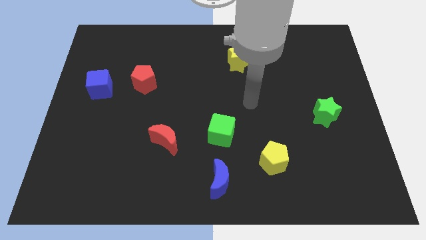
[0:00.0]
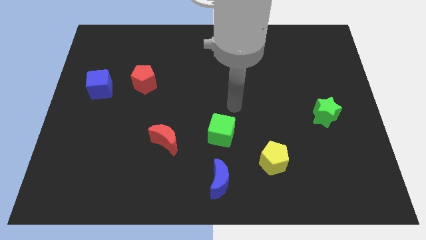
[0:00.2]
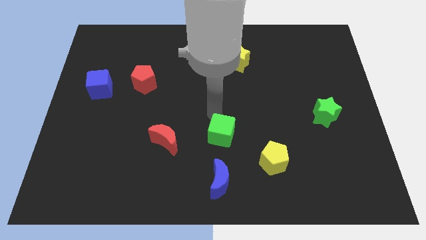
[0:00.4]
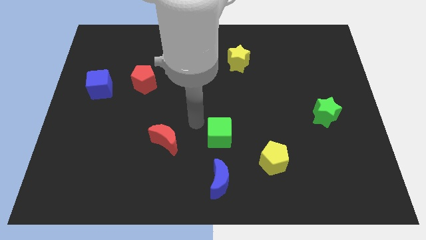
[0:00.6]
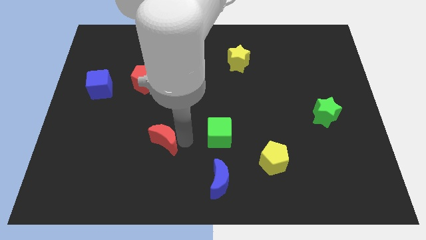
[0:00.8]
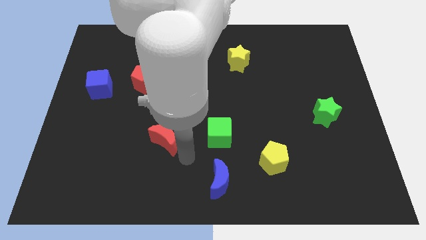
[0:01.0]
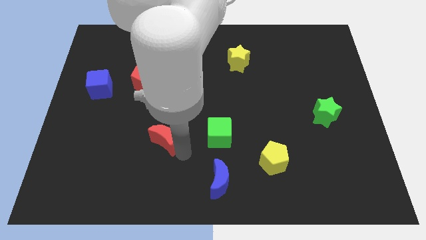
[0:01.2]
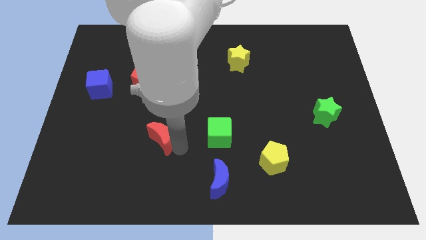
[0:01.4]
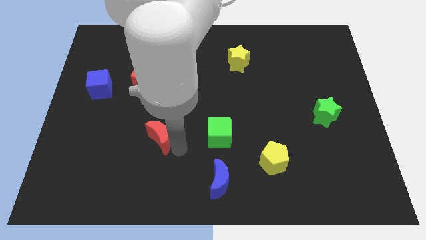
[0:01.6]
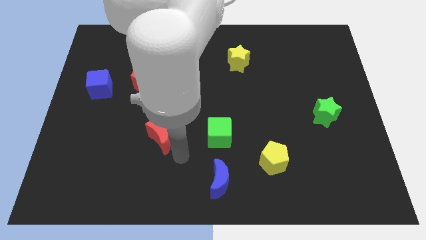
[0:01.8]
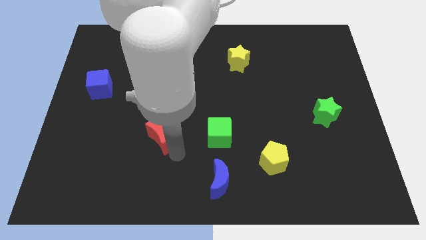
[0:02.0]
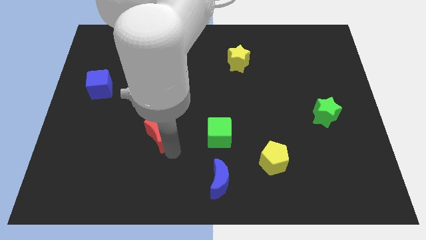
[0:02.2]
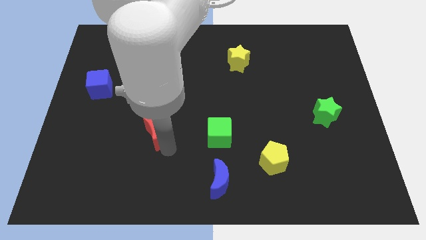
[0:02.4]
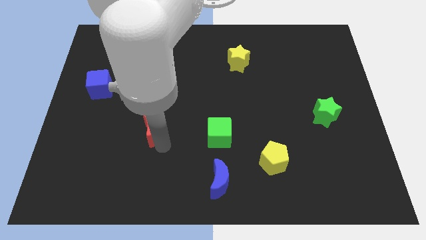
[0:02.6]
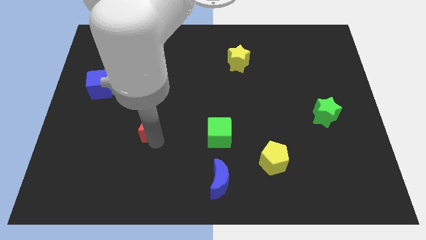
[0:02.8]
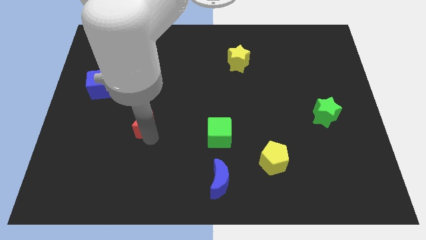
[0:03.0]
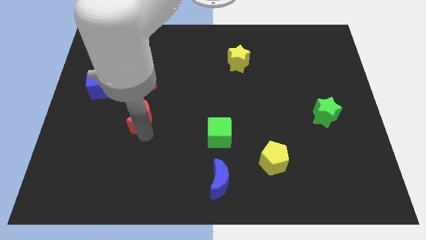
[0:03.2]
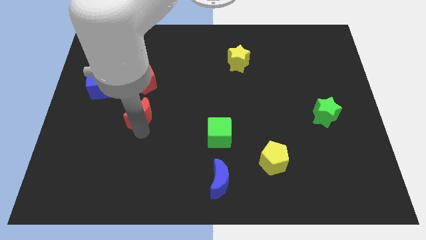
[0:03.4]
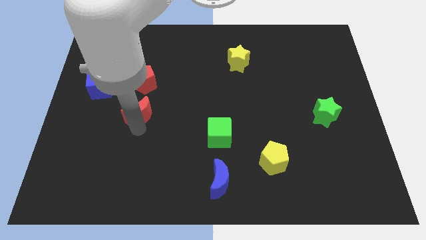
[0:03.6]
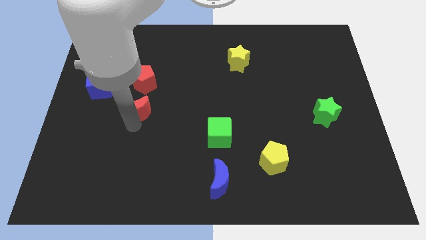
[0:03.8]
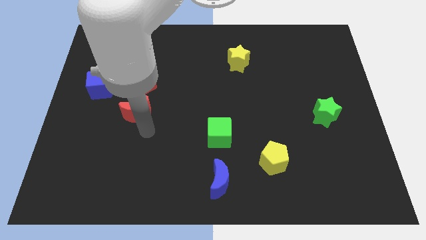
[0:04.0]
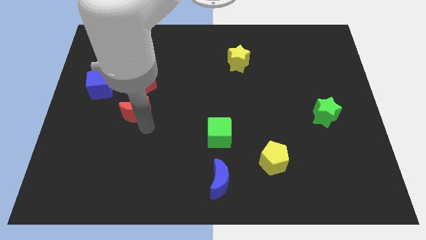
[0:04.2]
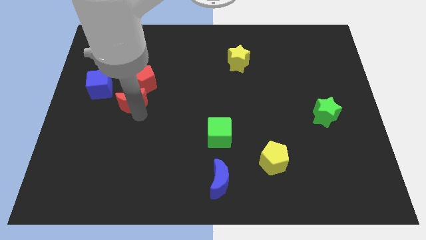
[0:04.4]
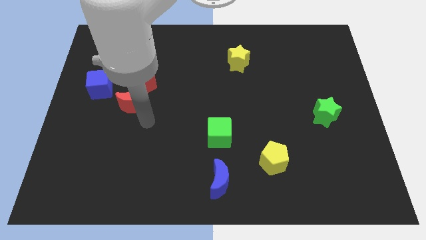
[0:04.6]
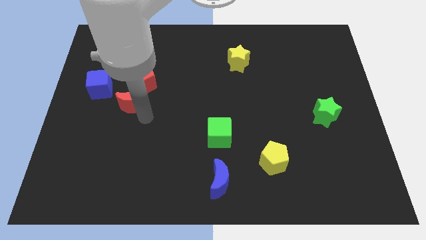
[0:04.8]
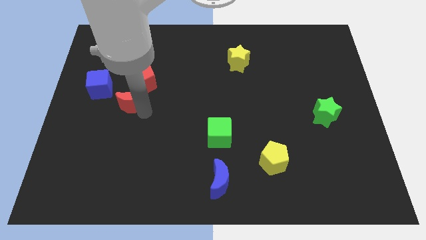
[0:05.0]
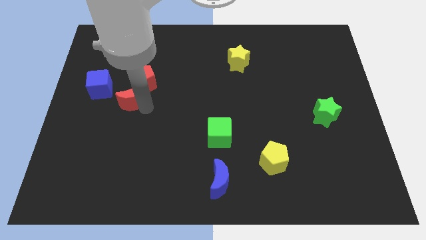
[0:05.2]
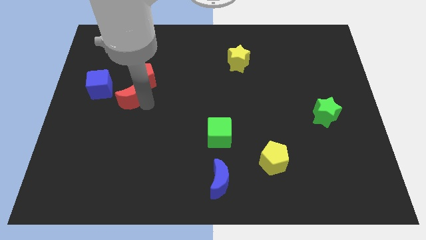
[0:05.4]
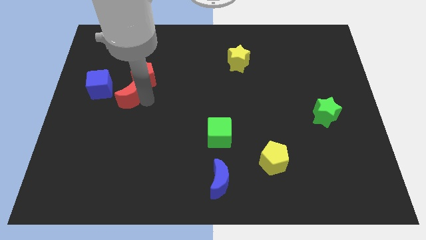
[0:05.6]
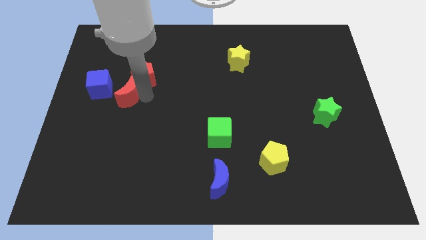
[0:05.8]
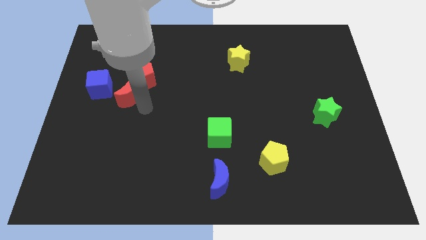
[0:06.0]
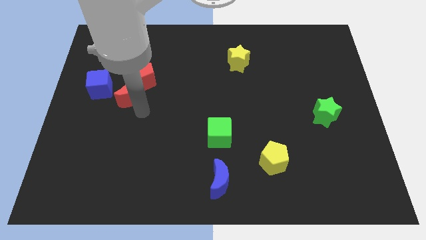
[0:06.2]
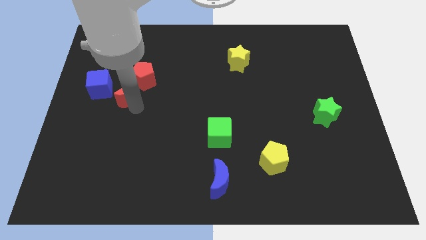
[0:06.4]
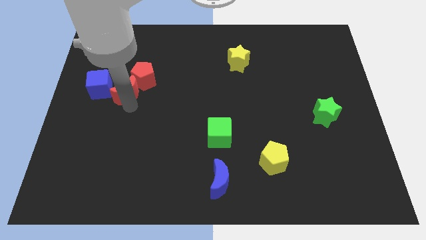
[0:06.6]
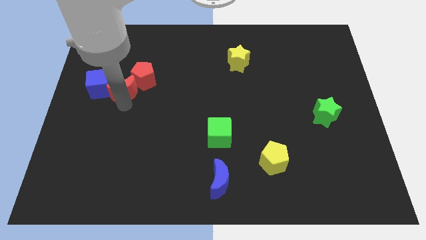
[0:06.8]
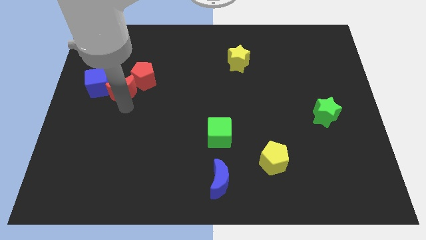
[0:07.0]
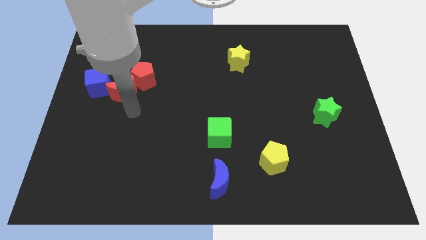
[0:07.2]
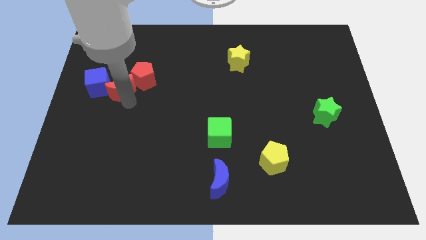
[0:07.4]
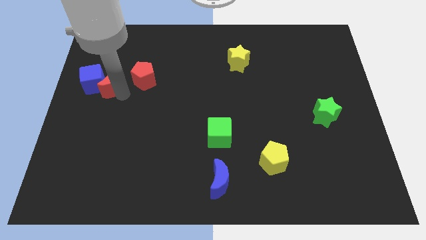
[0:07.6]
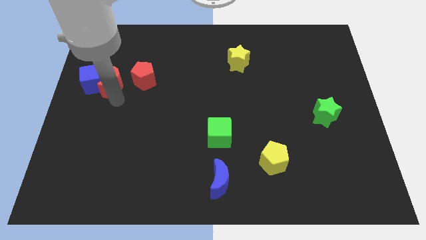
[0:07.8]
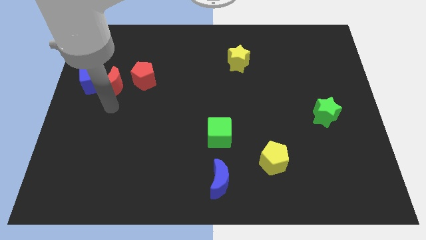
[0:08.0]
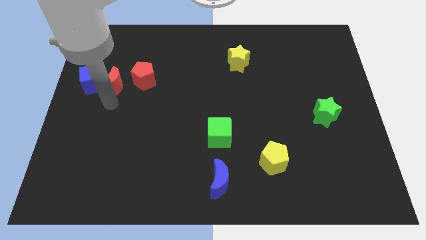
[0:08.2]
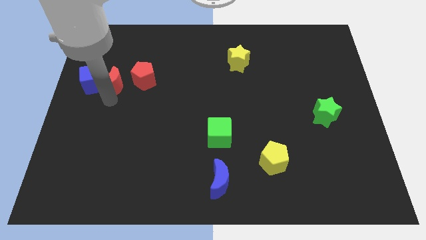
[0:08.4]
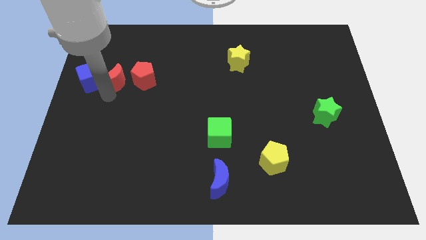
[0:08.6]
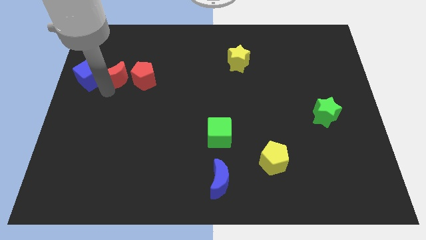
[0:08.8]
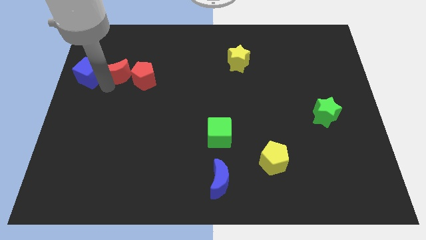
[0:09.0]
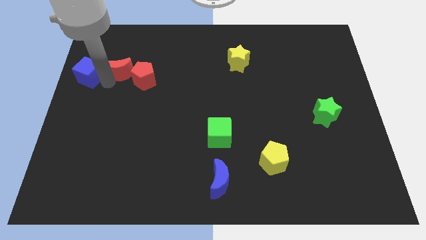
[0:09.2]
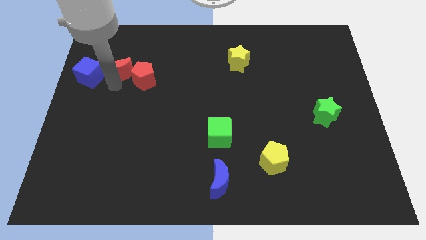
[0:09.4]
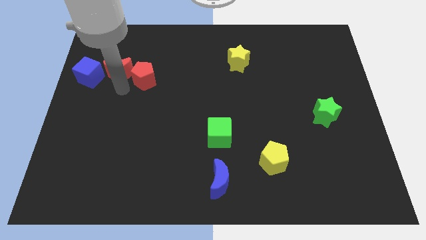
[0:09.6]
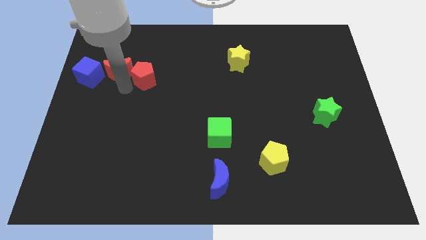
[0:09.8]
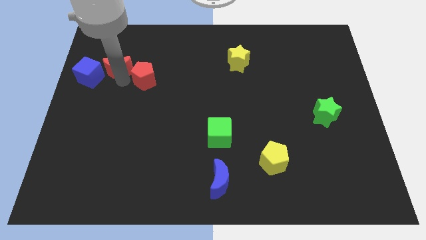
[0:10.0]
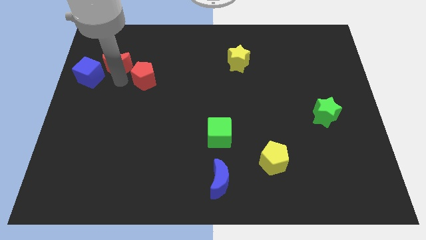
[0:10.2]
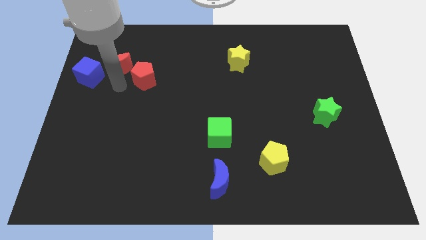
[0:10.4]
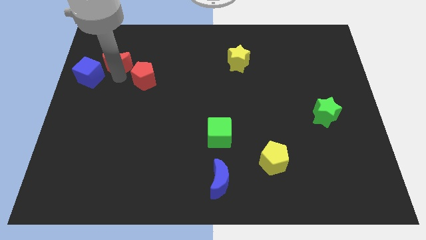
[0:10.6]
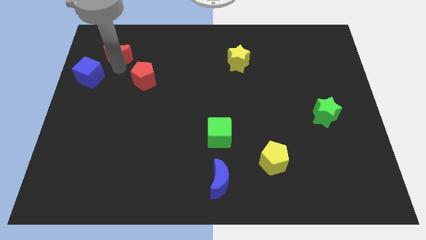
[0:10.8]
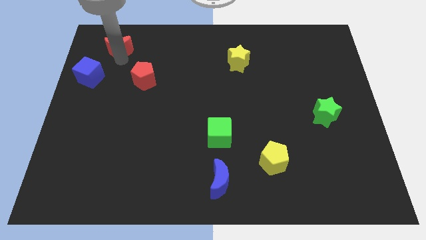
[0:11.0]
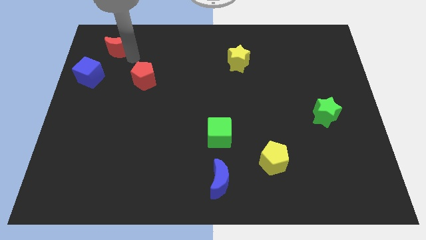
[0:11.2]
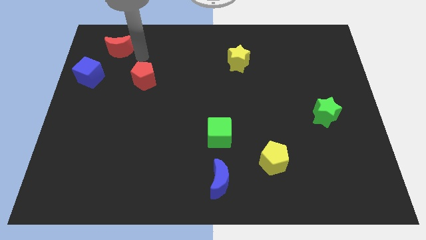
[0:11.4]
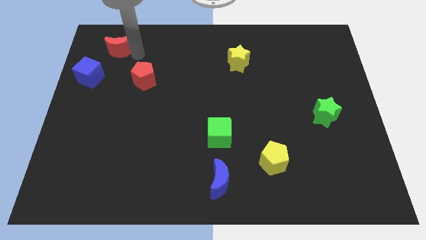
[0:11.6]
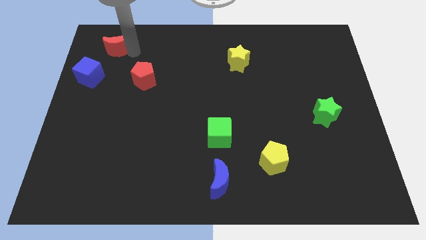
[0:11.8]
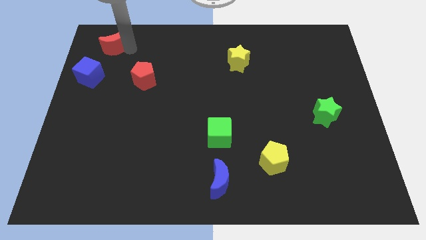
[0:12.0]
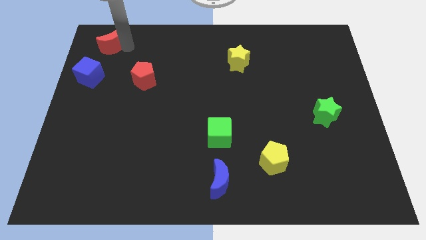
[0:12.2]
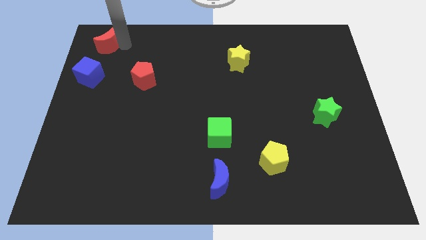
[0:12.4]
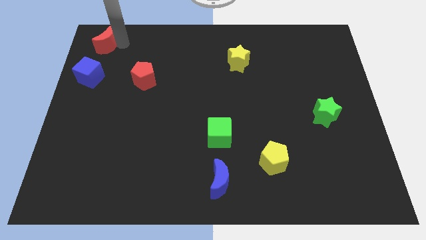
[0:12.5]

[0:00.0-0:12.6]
push the red moon to the top left of the board
